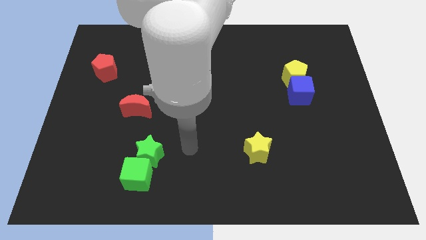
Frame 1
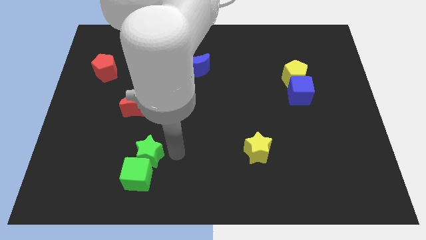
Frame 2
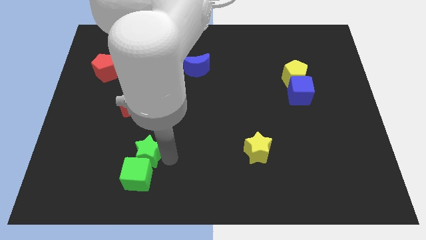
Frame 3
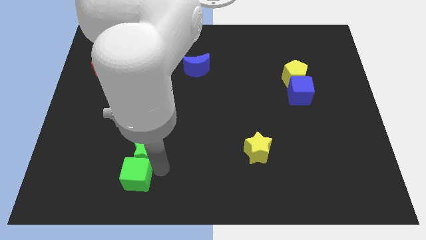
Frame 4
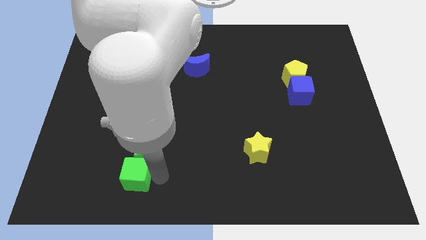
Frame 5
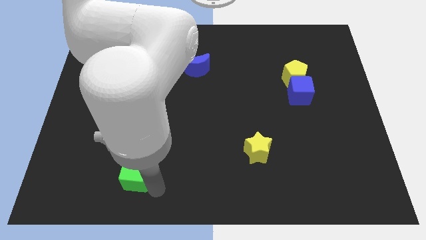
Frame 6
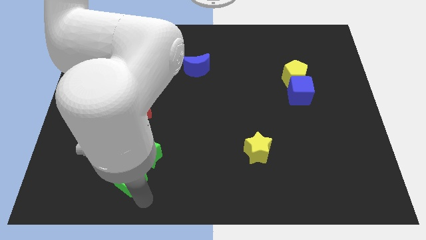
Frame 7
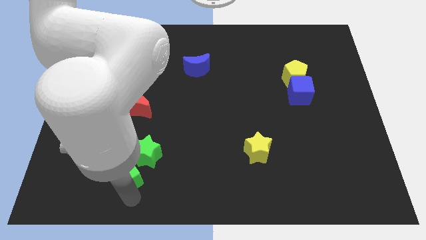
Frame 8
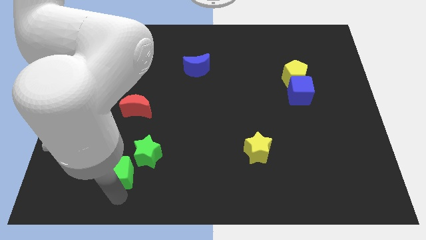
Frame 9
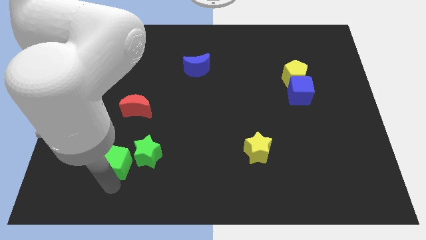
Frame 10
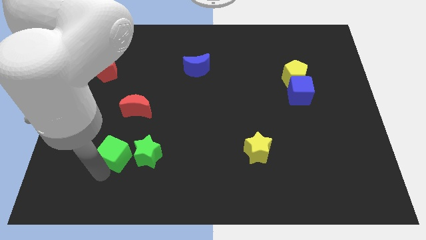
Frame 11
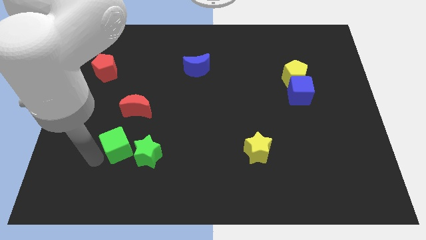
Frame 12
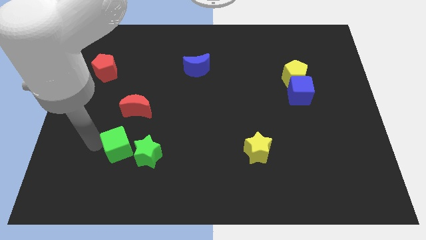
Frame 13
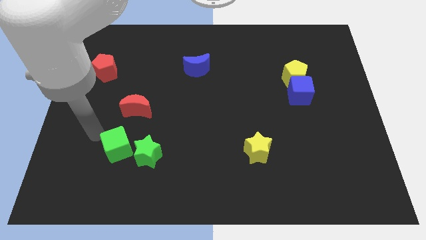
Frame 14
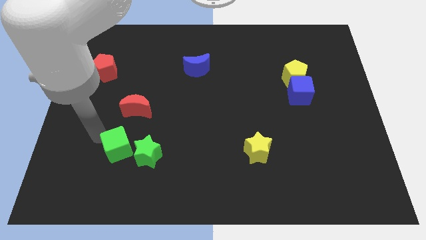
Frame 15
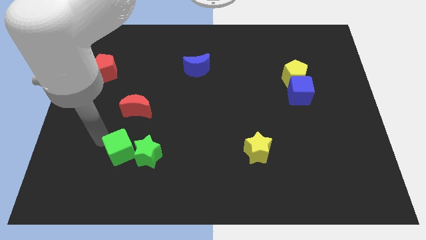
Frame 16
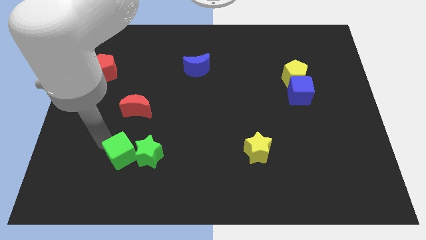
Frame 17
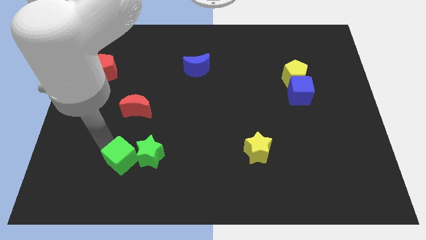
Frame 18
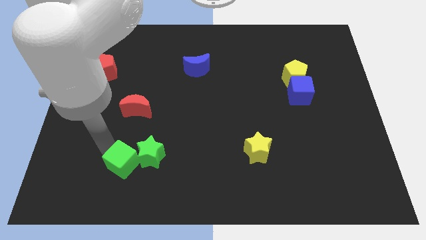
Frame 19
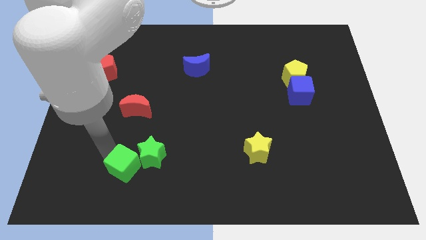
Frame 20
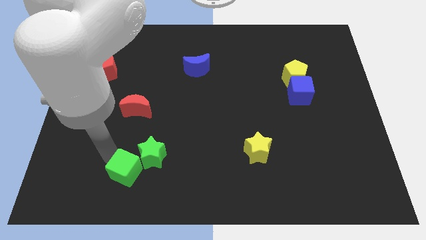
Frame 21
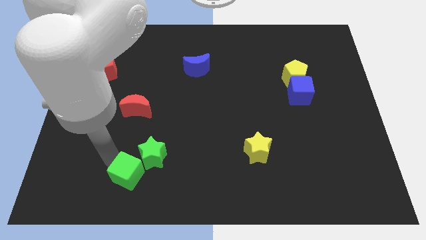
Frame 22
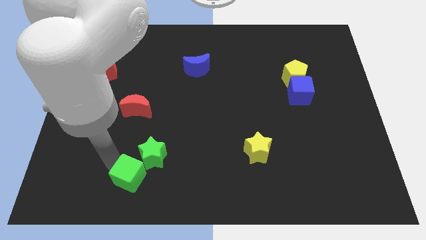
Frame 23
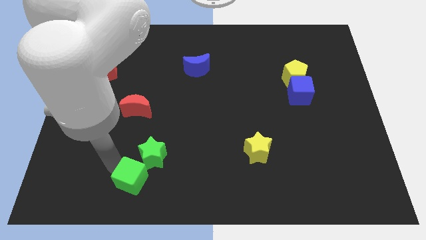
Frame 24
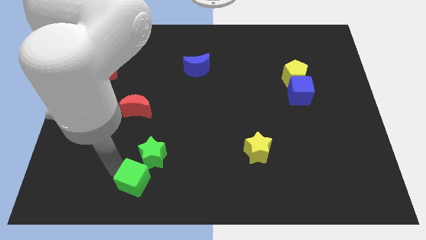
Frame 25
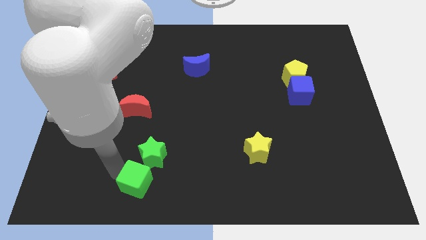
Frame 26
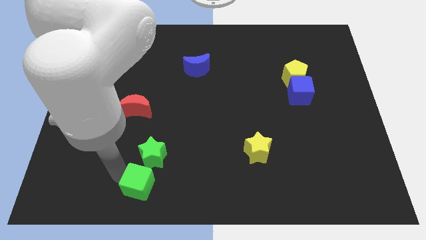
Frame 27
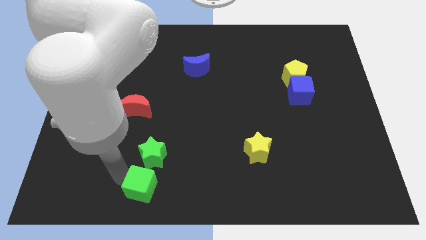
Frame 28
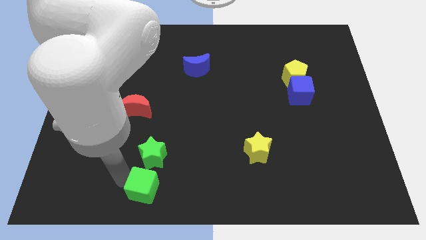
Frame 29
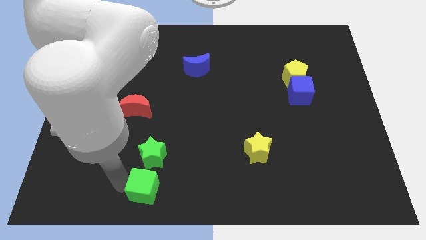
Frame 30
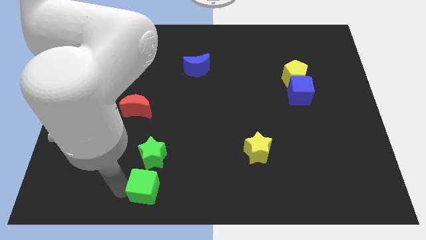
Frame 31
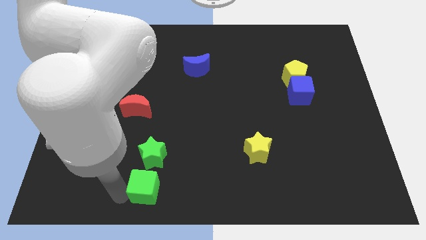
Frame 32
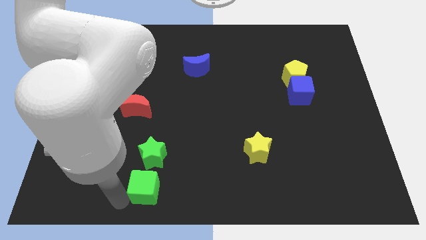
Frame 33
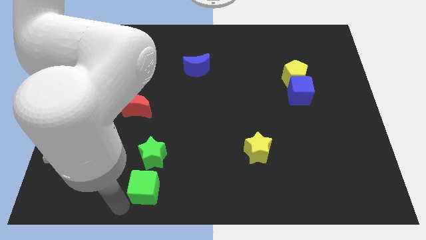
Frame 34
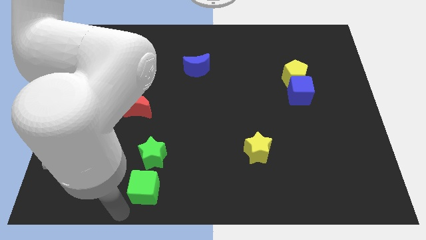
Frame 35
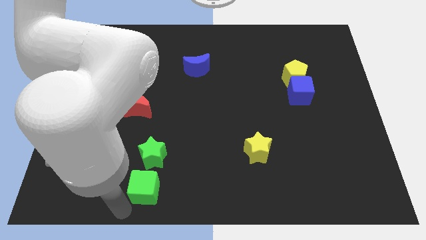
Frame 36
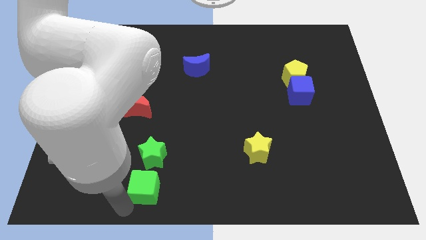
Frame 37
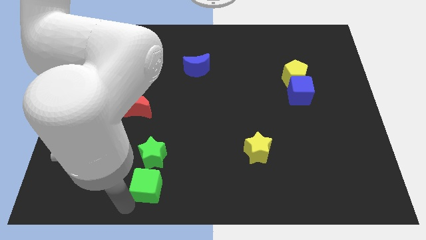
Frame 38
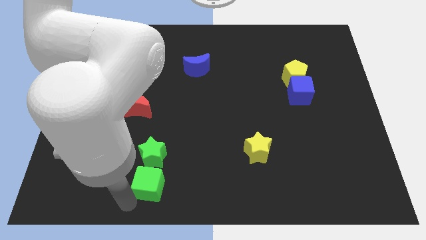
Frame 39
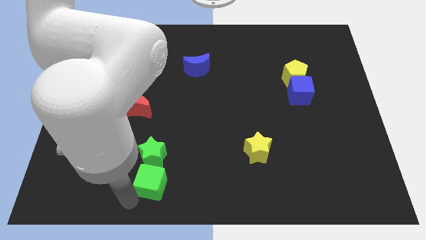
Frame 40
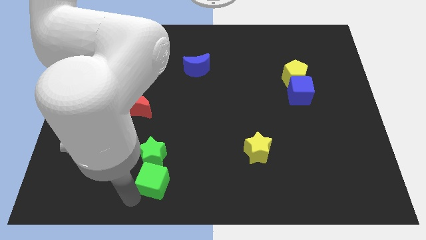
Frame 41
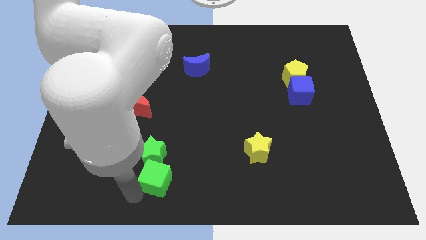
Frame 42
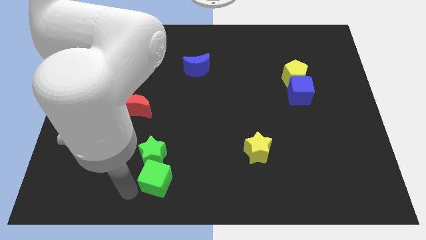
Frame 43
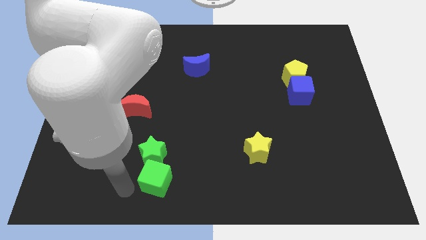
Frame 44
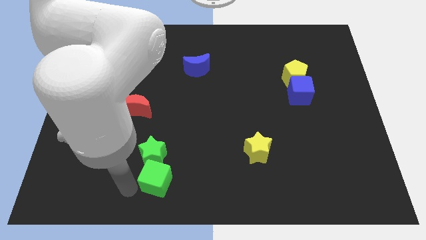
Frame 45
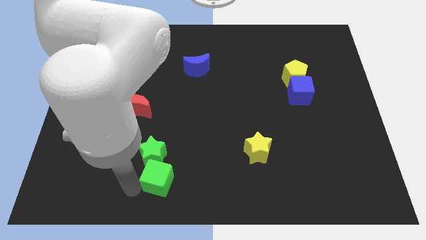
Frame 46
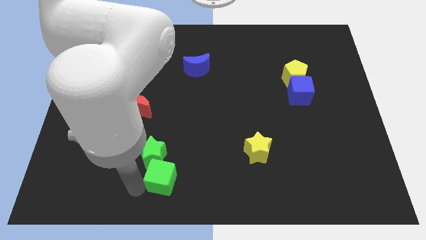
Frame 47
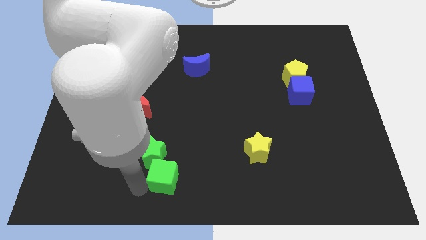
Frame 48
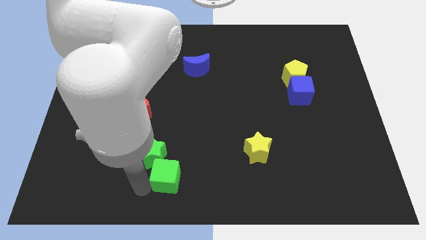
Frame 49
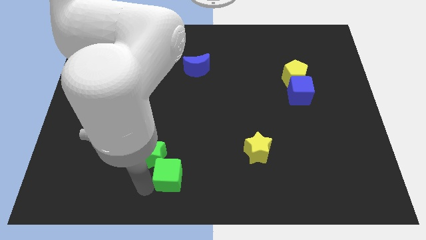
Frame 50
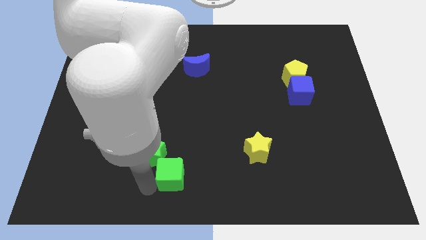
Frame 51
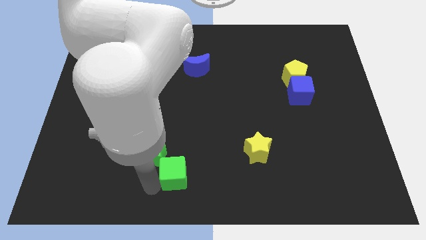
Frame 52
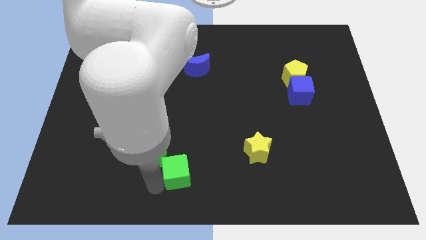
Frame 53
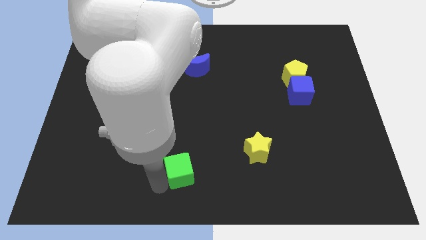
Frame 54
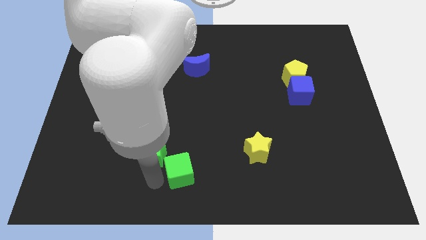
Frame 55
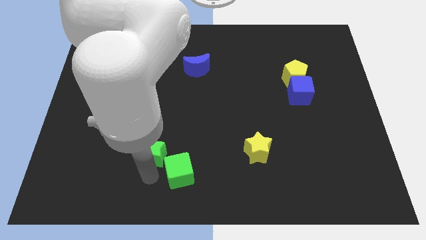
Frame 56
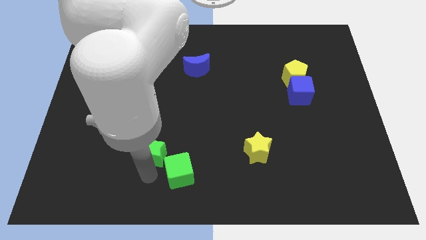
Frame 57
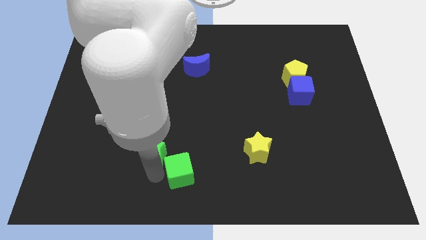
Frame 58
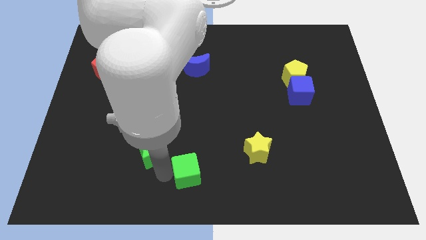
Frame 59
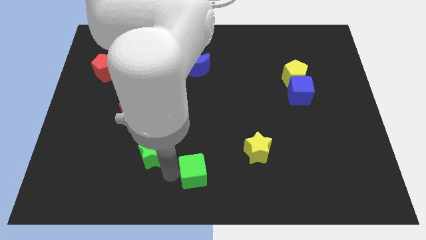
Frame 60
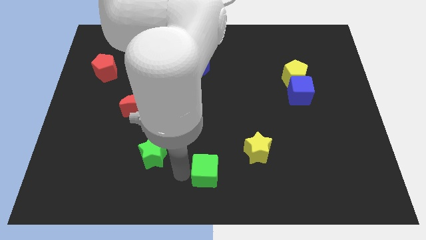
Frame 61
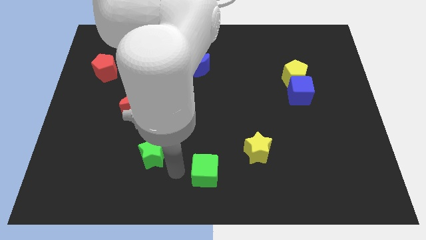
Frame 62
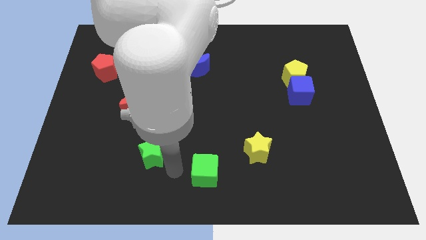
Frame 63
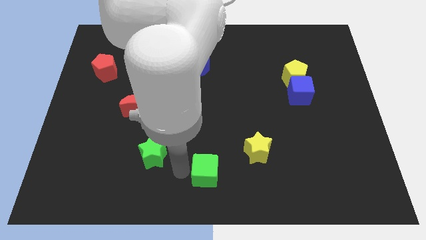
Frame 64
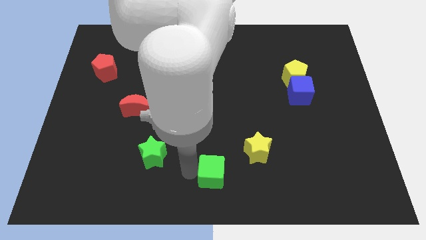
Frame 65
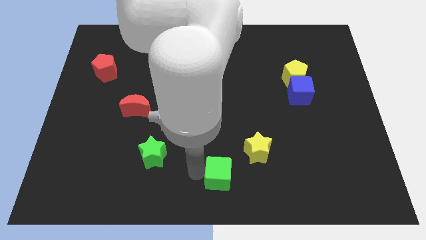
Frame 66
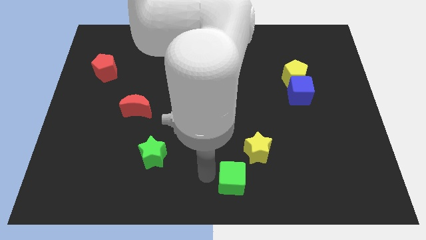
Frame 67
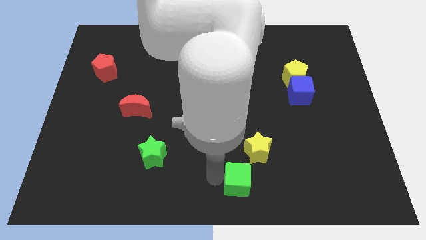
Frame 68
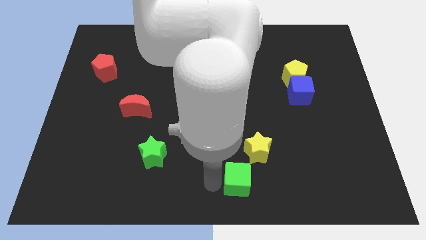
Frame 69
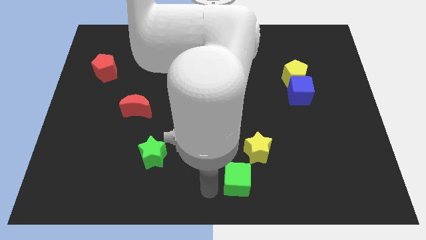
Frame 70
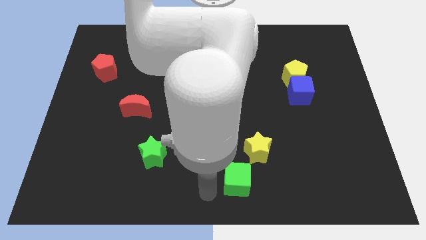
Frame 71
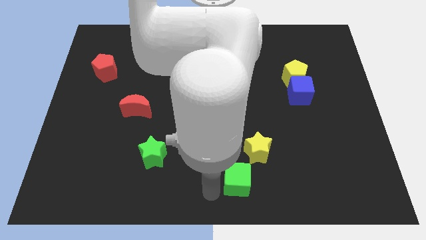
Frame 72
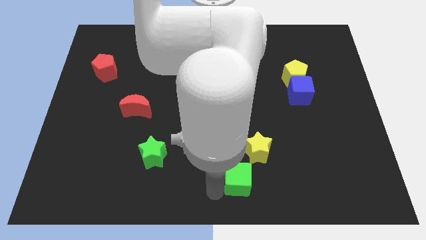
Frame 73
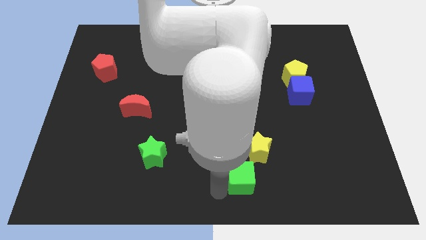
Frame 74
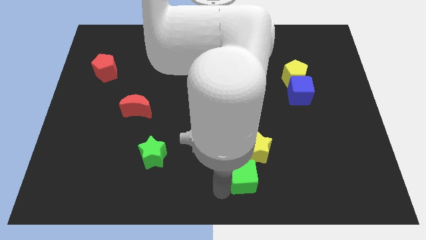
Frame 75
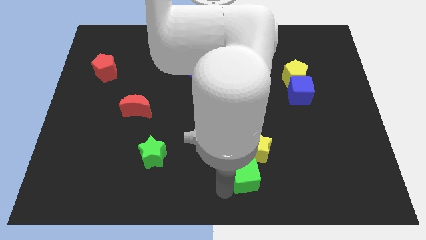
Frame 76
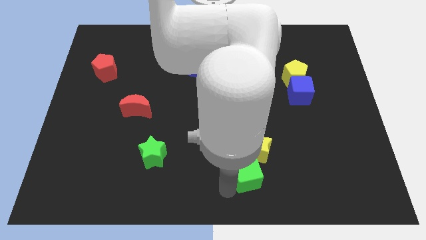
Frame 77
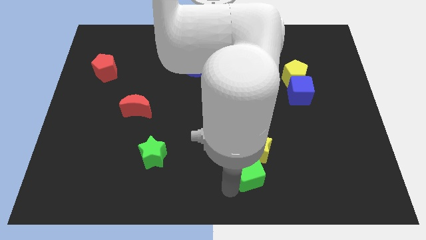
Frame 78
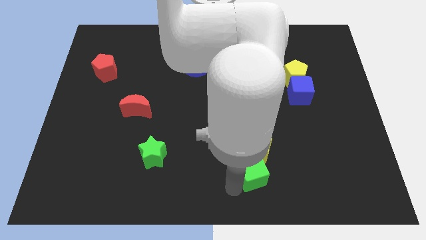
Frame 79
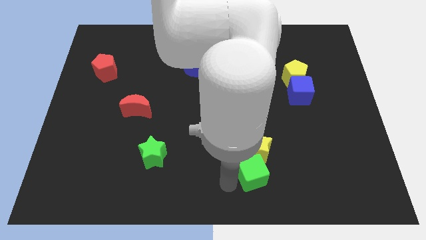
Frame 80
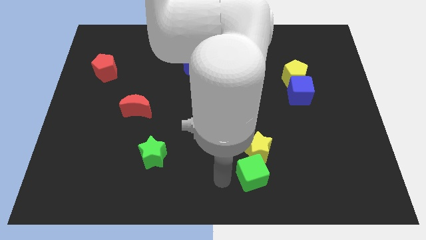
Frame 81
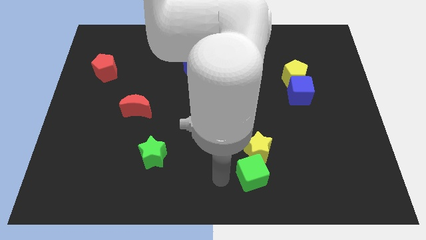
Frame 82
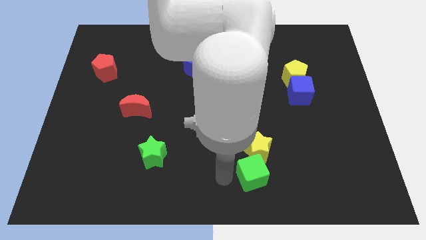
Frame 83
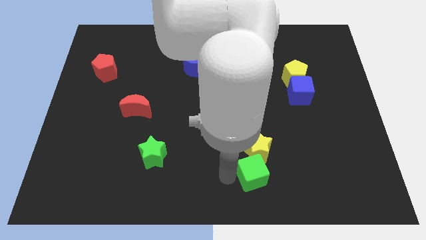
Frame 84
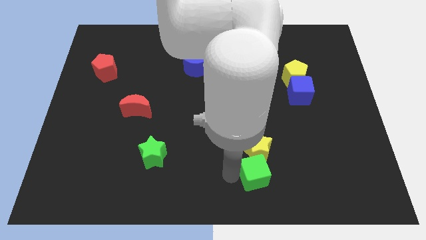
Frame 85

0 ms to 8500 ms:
push the green cube to the bottom right side of the yellow star
